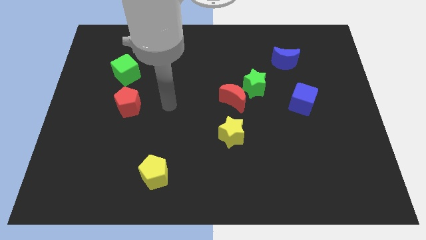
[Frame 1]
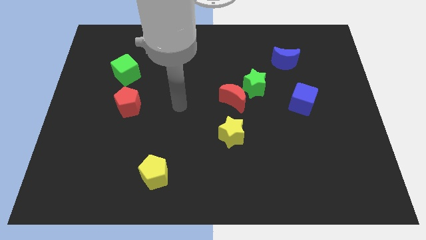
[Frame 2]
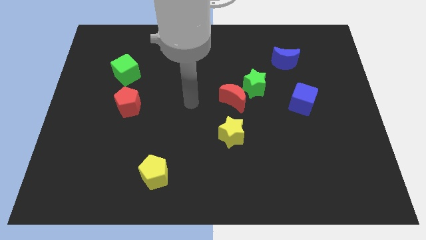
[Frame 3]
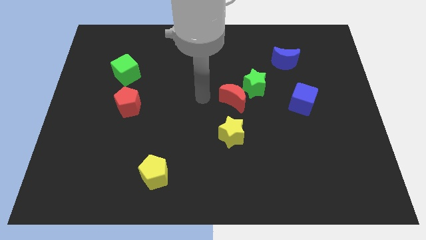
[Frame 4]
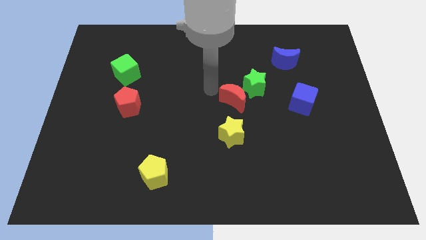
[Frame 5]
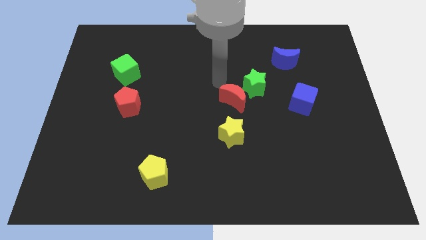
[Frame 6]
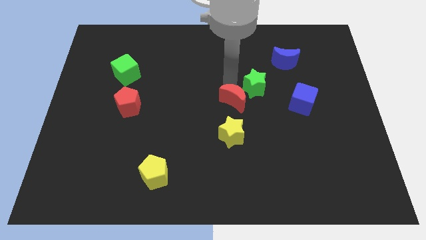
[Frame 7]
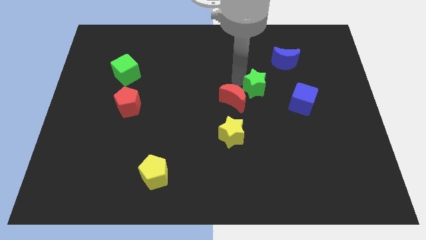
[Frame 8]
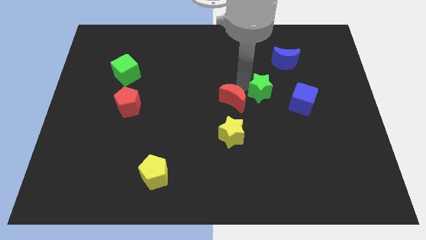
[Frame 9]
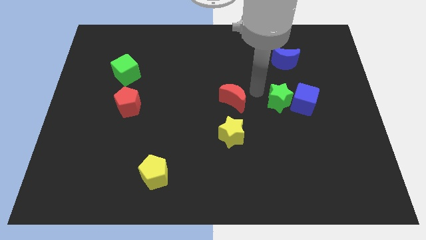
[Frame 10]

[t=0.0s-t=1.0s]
separate the red moon from the green star

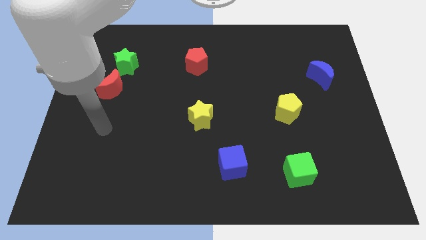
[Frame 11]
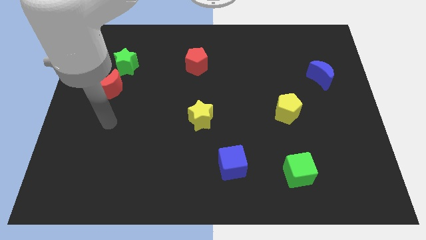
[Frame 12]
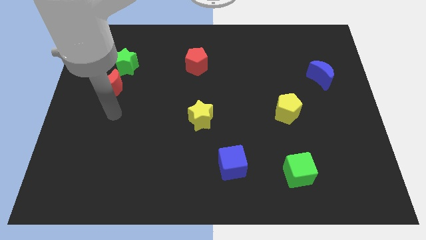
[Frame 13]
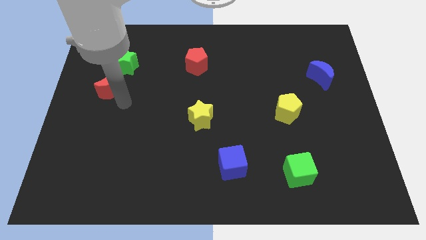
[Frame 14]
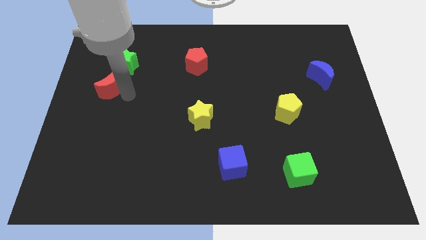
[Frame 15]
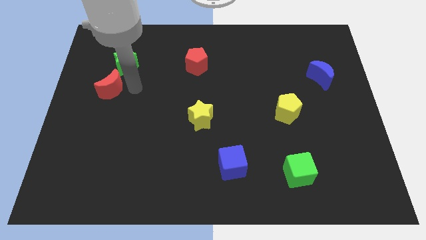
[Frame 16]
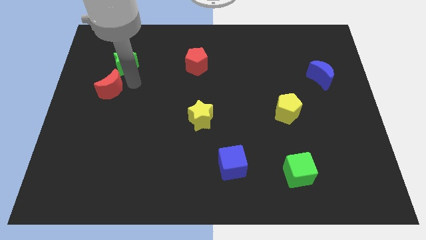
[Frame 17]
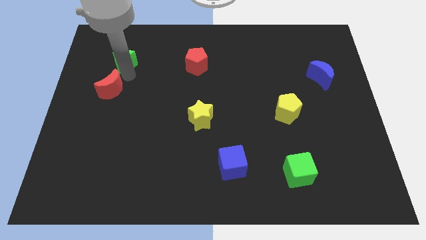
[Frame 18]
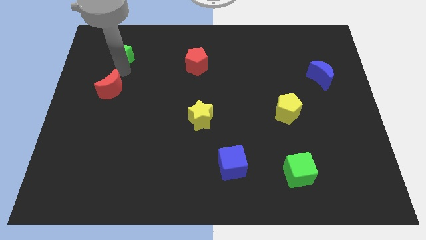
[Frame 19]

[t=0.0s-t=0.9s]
pull the red moon apart from the green star

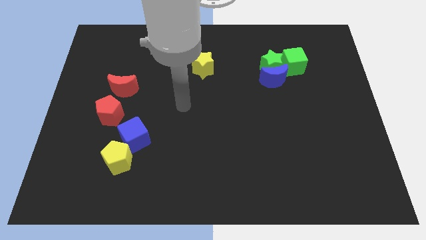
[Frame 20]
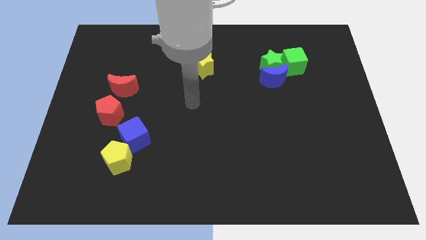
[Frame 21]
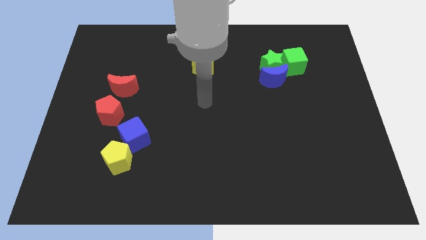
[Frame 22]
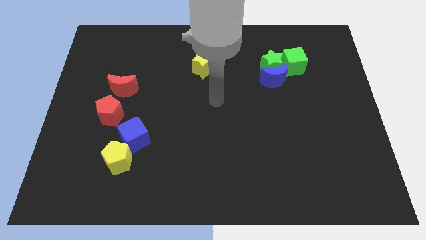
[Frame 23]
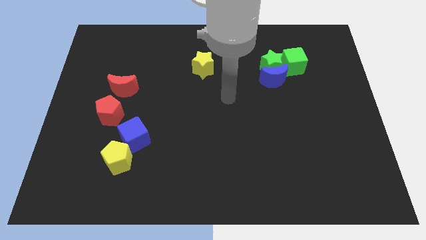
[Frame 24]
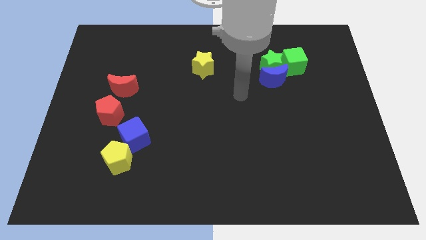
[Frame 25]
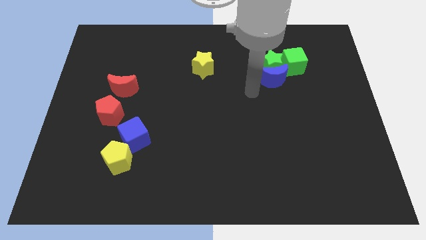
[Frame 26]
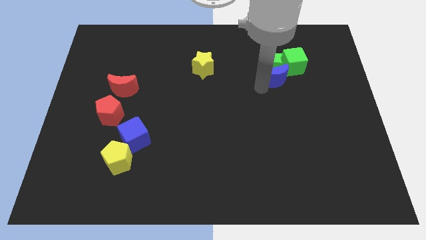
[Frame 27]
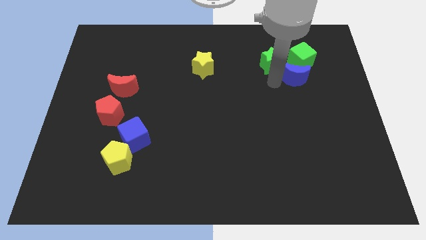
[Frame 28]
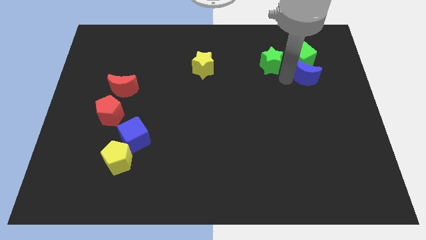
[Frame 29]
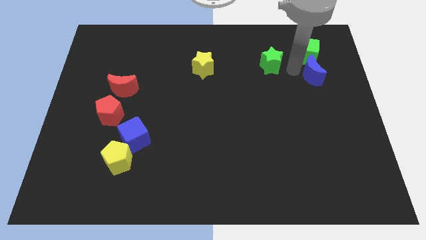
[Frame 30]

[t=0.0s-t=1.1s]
move the green star away from the blue moon and green cube

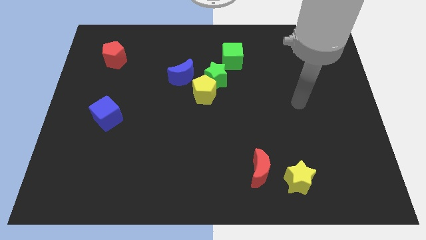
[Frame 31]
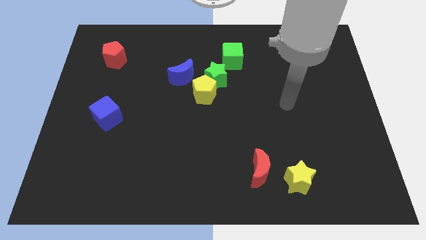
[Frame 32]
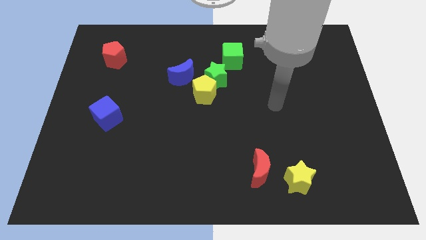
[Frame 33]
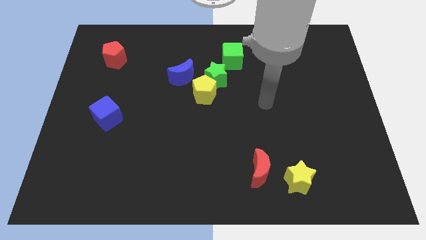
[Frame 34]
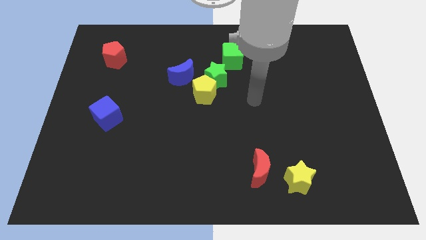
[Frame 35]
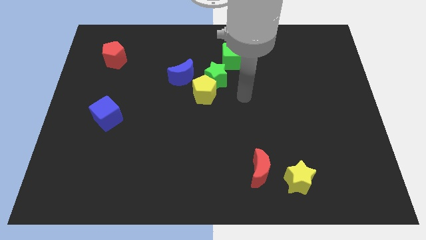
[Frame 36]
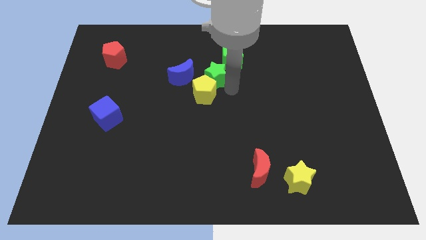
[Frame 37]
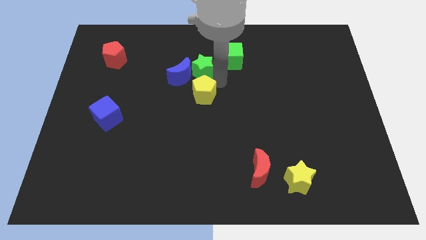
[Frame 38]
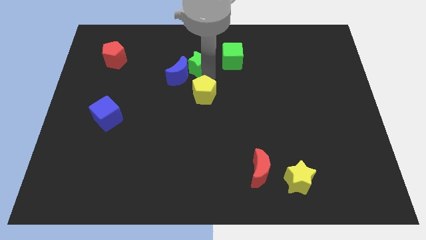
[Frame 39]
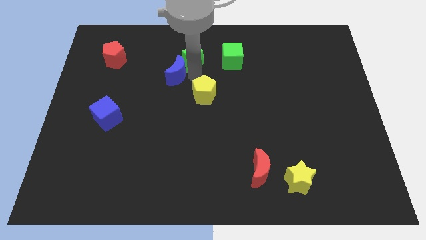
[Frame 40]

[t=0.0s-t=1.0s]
separate the yellow pentagon from the green star and blue moon

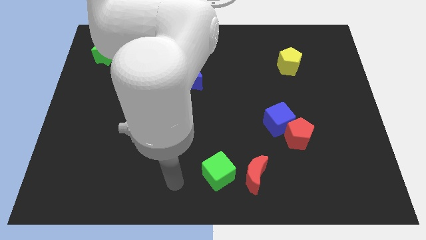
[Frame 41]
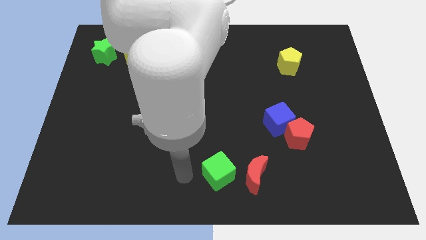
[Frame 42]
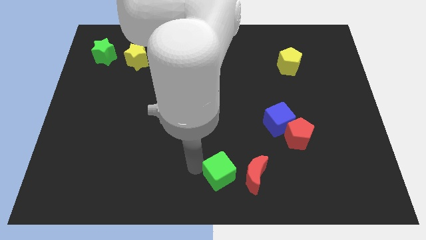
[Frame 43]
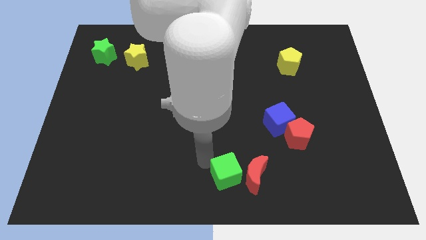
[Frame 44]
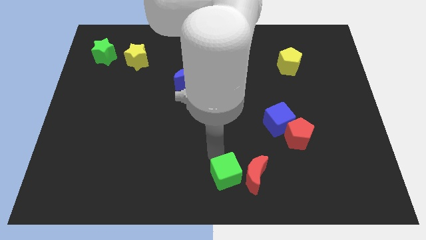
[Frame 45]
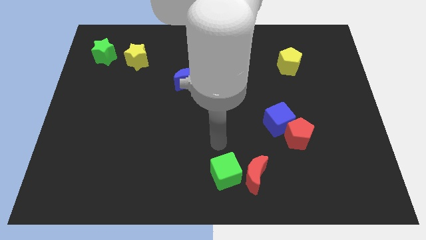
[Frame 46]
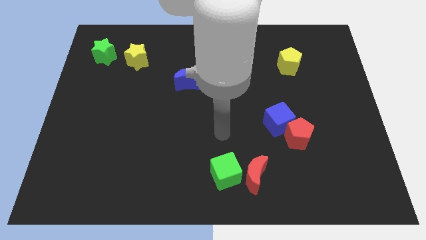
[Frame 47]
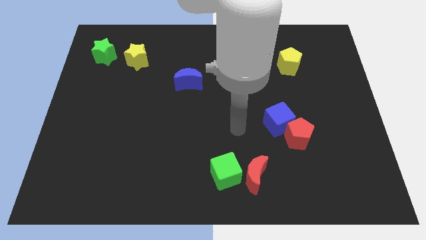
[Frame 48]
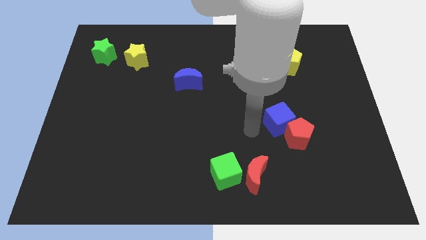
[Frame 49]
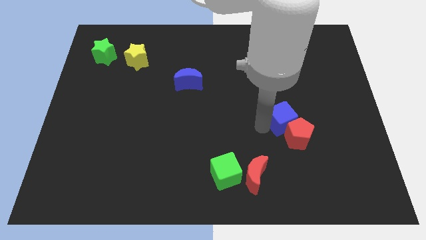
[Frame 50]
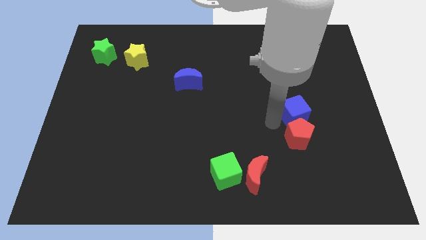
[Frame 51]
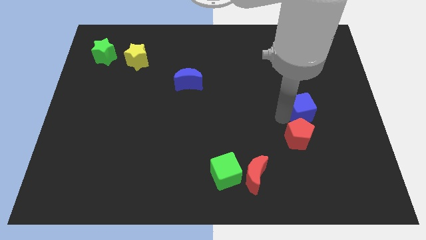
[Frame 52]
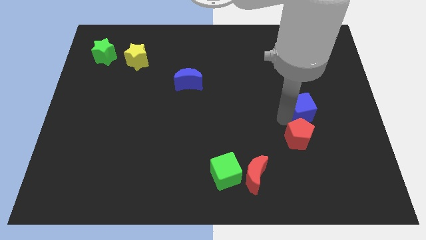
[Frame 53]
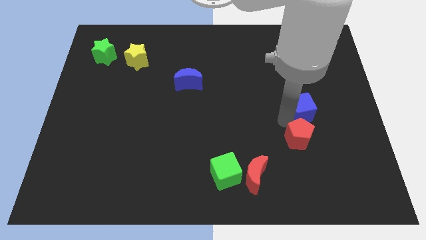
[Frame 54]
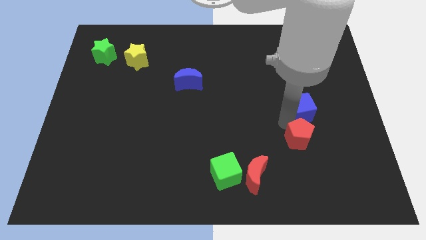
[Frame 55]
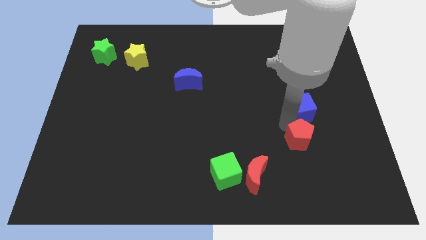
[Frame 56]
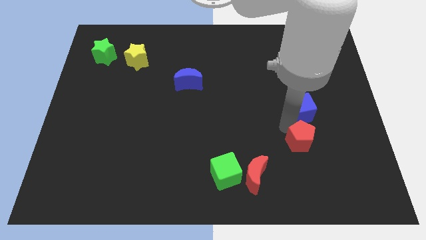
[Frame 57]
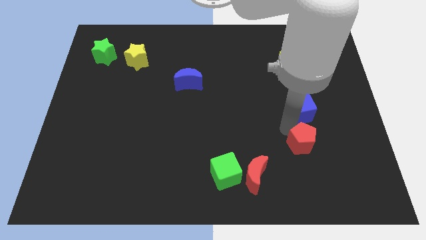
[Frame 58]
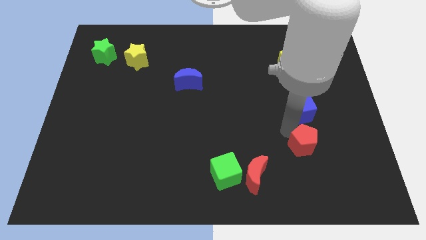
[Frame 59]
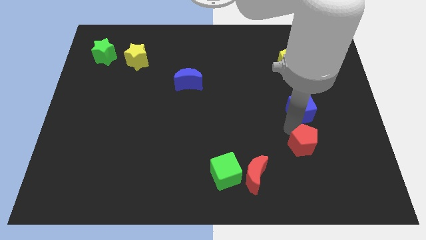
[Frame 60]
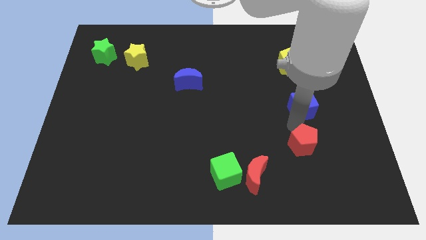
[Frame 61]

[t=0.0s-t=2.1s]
move the red pentagon away from the blue cube

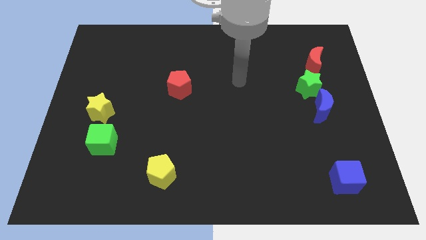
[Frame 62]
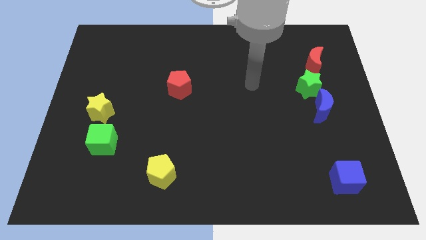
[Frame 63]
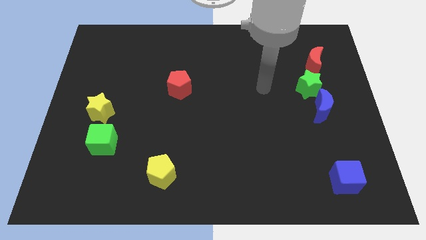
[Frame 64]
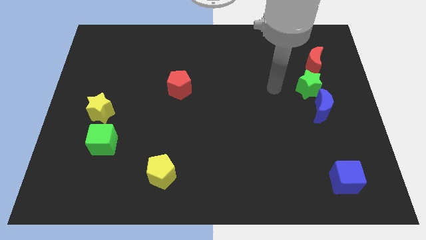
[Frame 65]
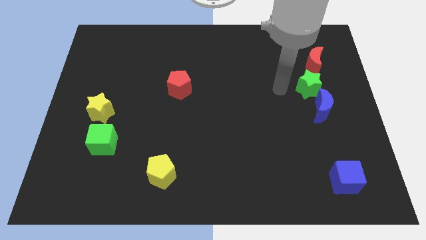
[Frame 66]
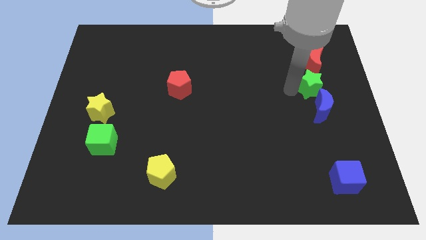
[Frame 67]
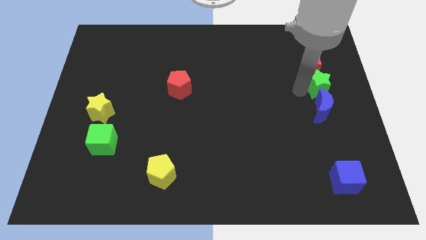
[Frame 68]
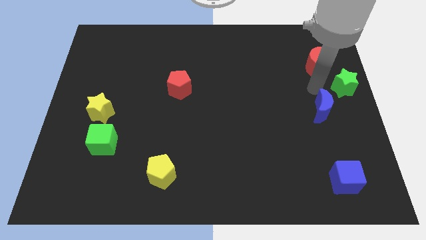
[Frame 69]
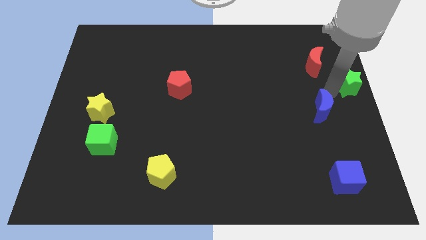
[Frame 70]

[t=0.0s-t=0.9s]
separate the blue moon from the green star

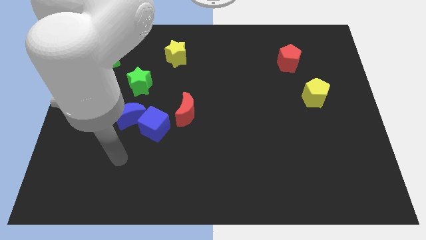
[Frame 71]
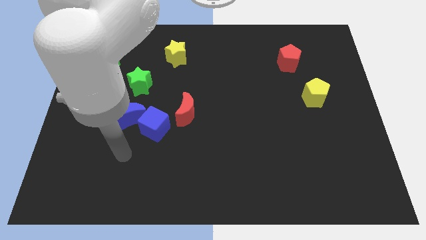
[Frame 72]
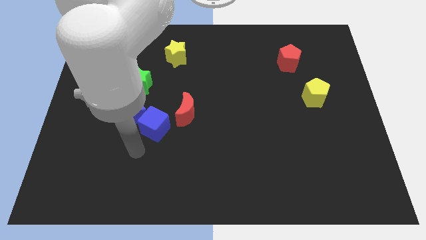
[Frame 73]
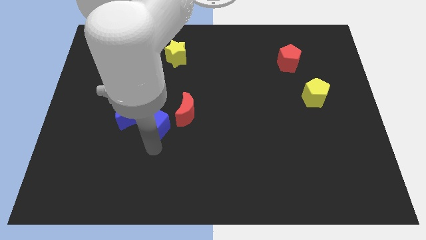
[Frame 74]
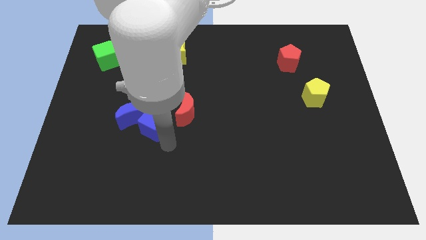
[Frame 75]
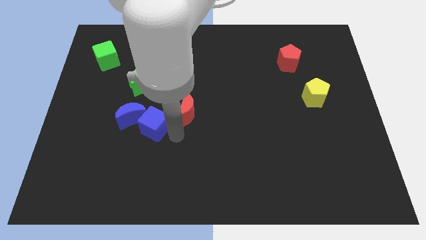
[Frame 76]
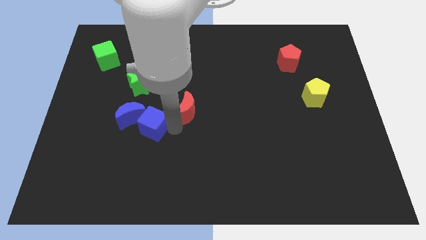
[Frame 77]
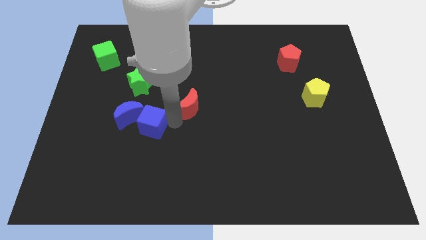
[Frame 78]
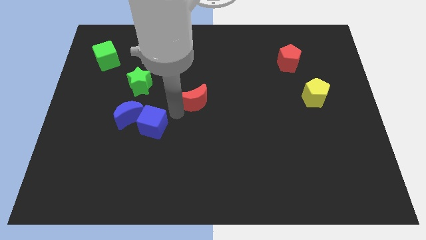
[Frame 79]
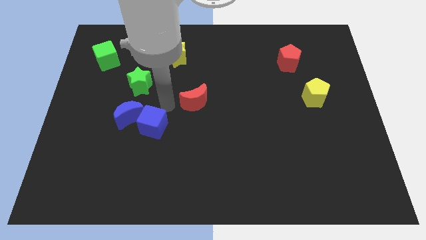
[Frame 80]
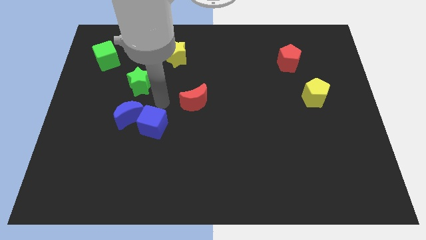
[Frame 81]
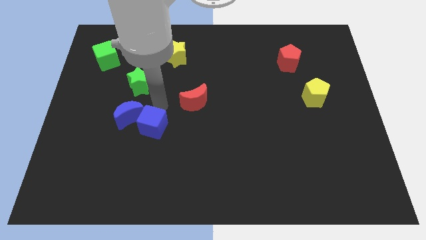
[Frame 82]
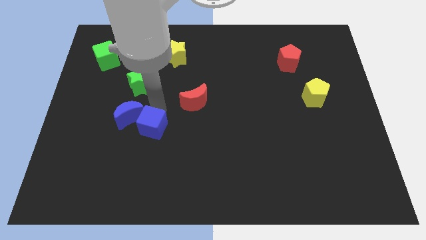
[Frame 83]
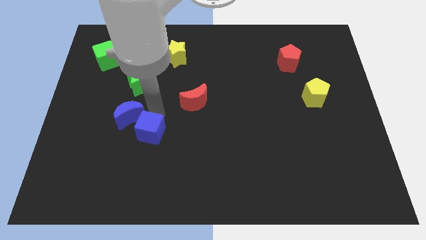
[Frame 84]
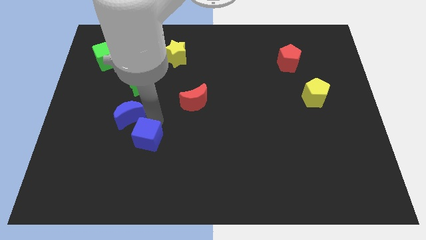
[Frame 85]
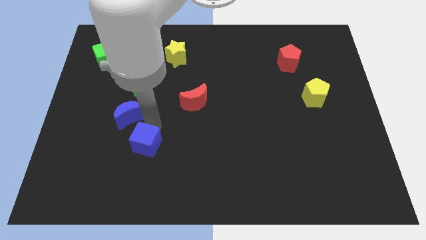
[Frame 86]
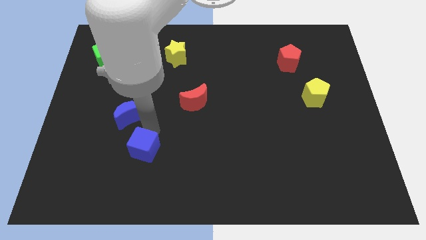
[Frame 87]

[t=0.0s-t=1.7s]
pull the blue cube apart from the blue moon and red moon

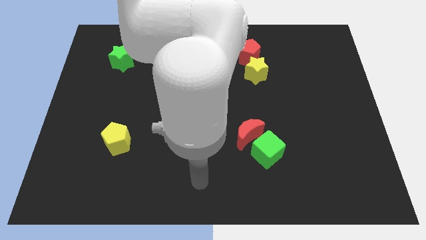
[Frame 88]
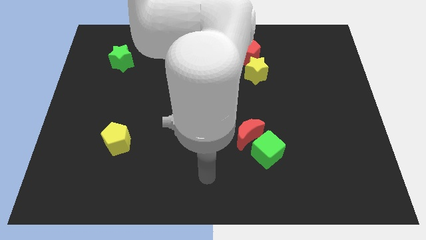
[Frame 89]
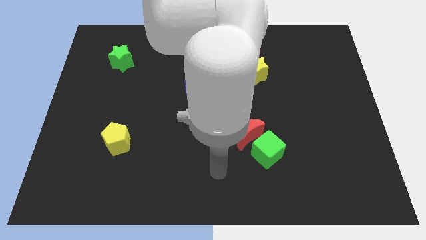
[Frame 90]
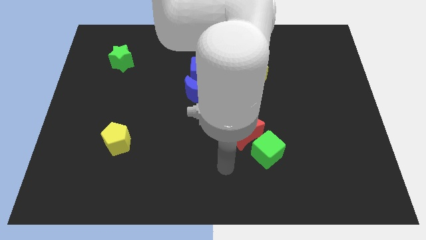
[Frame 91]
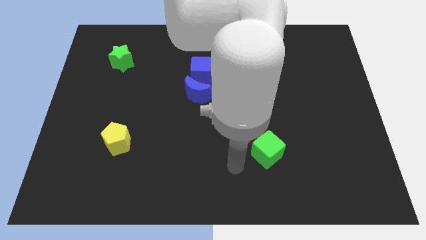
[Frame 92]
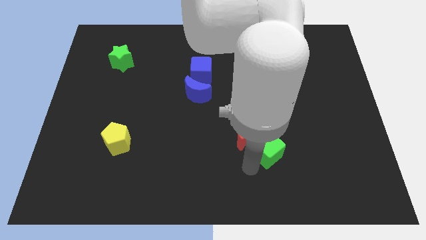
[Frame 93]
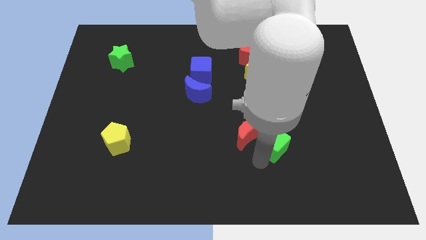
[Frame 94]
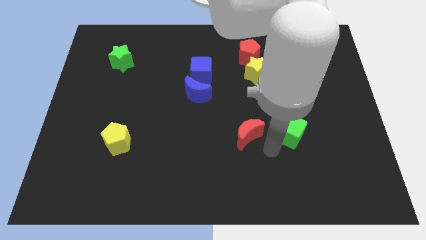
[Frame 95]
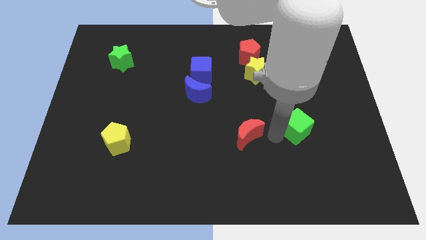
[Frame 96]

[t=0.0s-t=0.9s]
move the red moon away from the green cube
